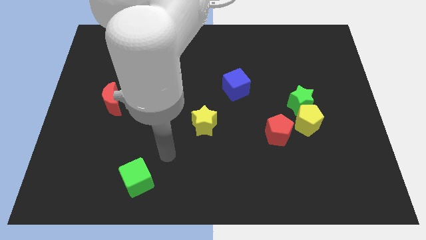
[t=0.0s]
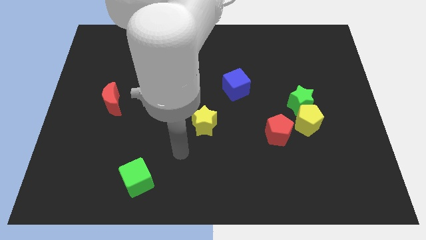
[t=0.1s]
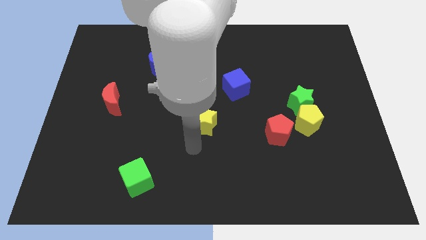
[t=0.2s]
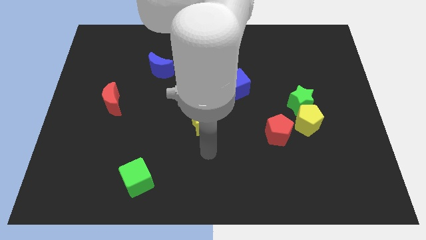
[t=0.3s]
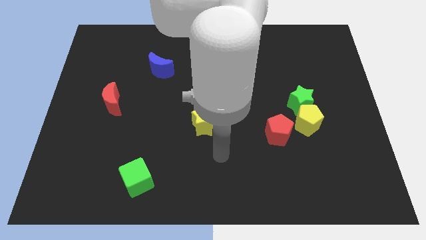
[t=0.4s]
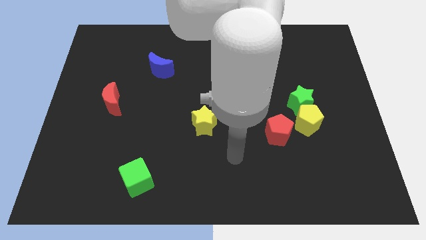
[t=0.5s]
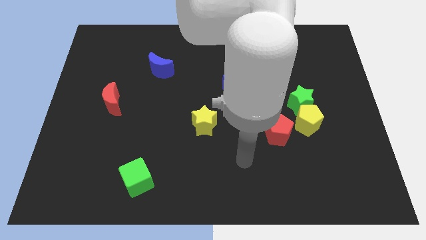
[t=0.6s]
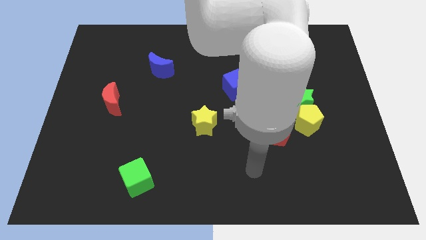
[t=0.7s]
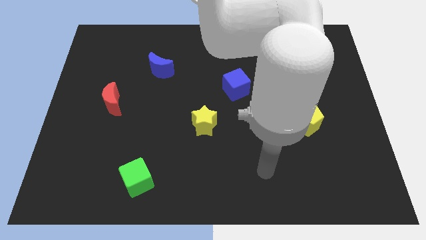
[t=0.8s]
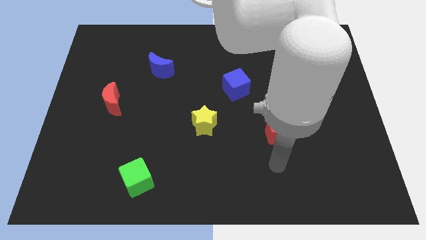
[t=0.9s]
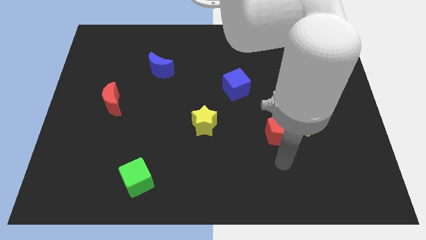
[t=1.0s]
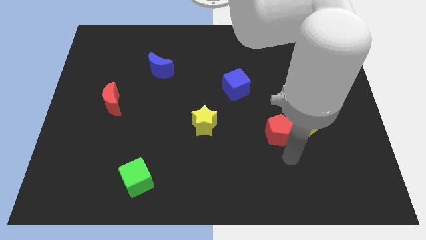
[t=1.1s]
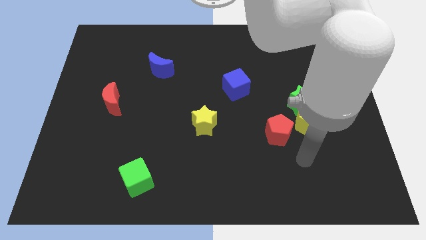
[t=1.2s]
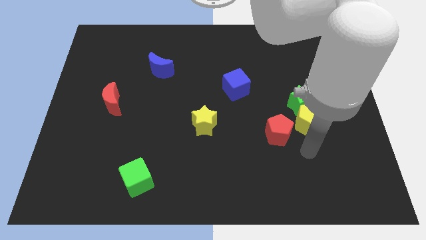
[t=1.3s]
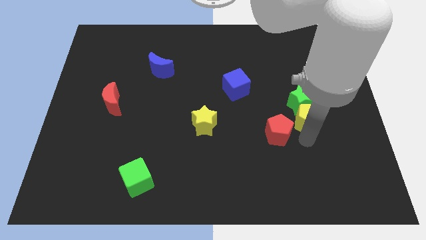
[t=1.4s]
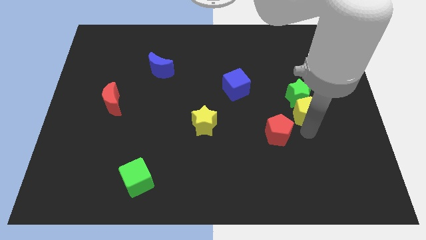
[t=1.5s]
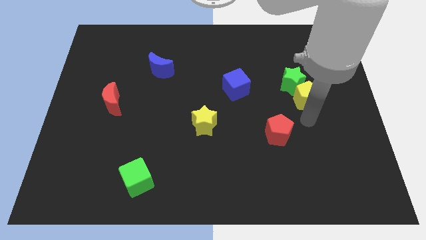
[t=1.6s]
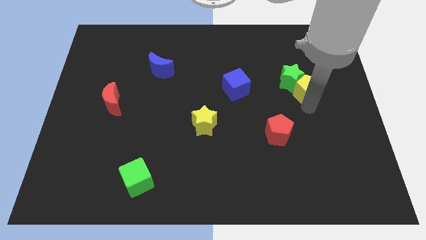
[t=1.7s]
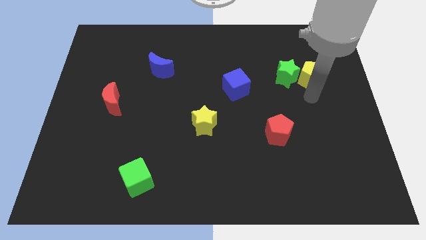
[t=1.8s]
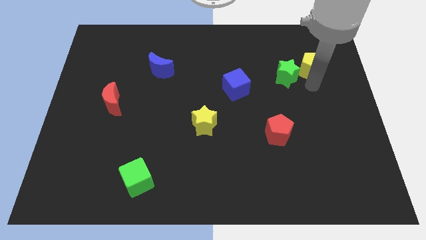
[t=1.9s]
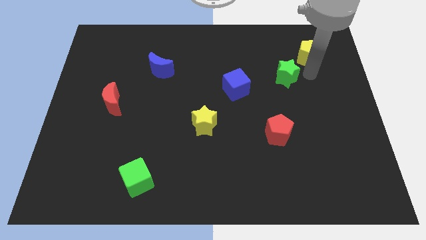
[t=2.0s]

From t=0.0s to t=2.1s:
move the green star away from the yellow pentagon

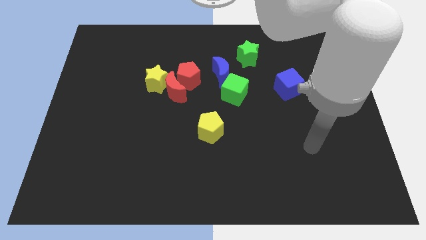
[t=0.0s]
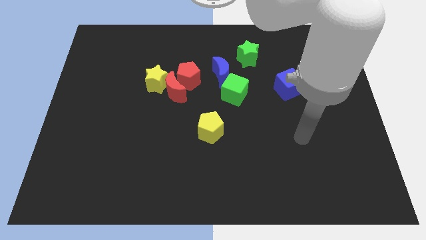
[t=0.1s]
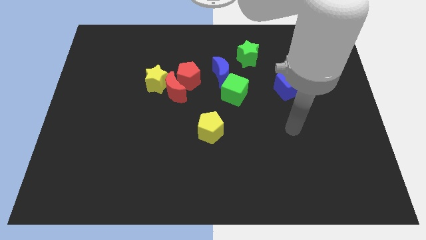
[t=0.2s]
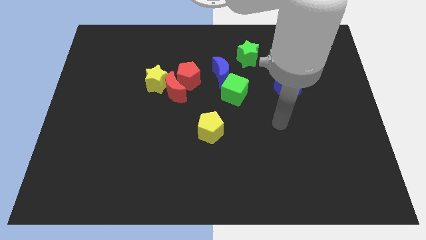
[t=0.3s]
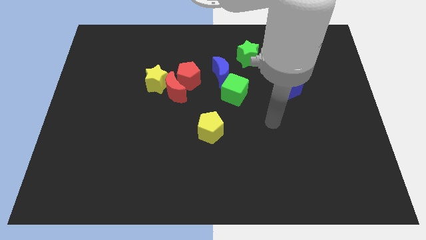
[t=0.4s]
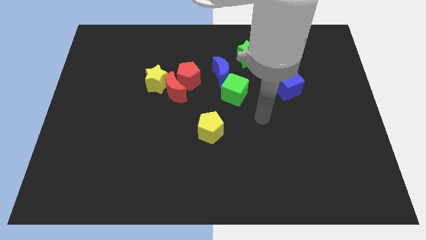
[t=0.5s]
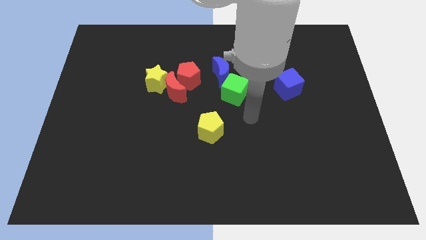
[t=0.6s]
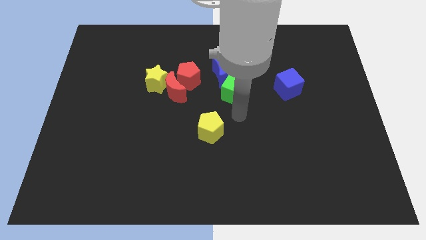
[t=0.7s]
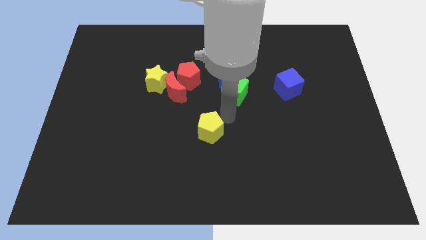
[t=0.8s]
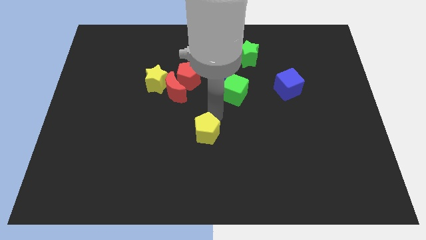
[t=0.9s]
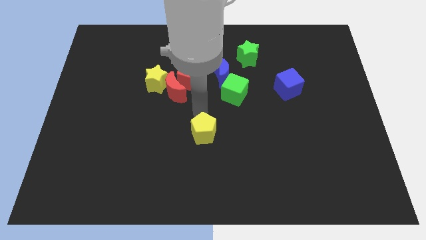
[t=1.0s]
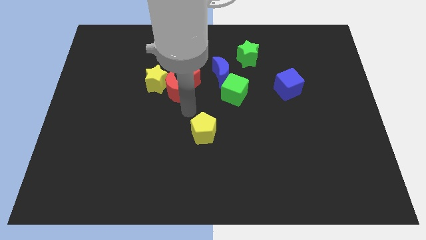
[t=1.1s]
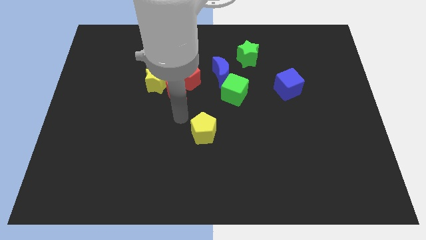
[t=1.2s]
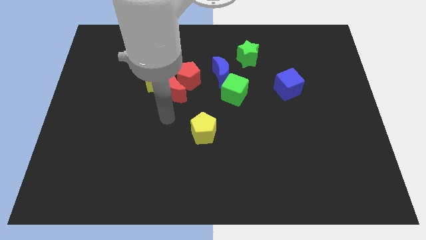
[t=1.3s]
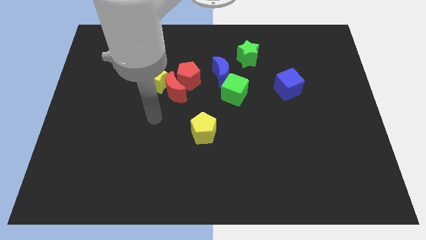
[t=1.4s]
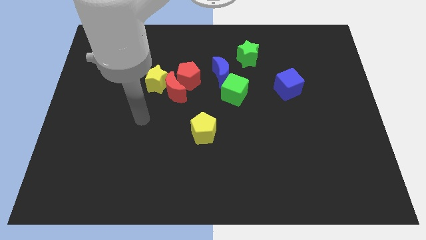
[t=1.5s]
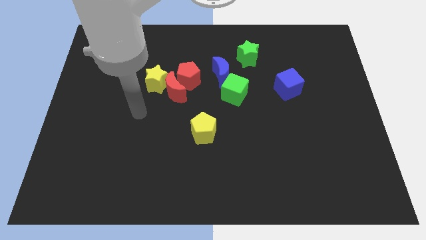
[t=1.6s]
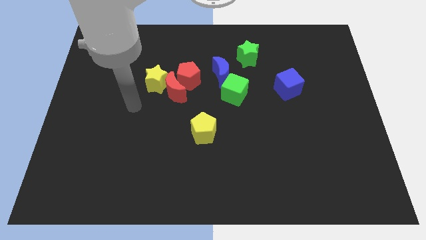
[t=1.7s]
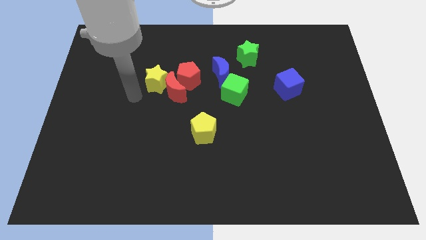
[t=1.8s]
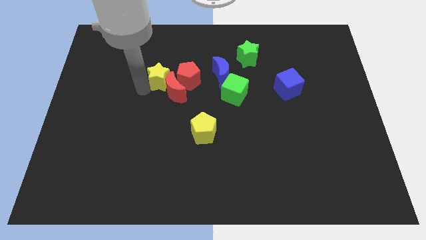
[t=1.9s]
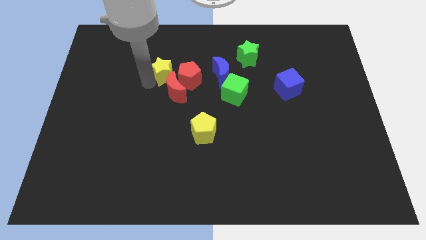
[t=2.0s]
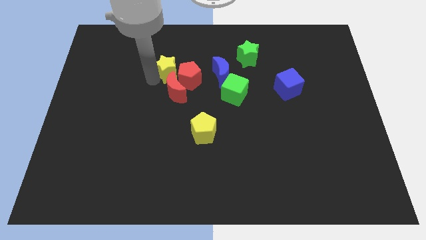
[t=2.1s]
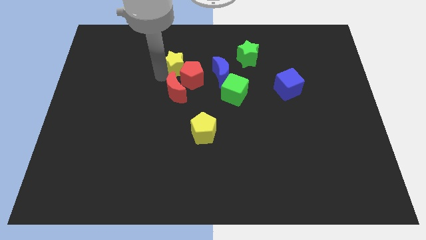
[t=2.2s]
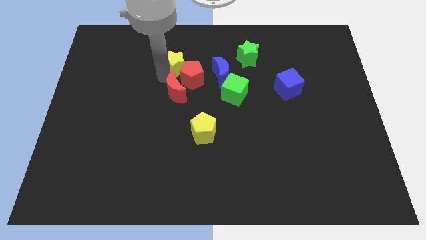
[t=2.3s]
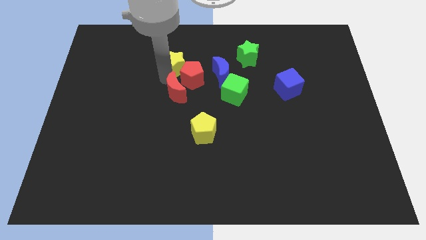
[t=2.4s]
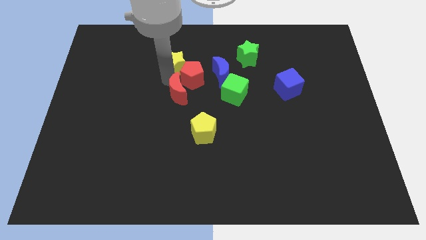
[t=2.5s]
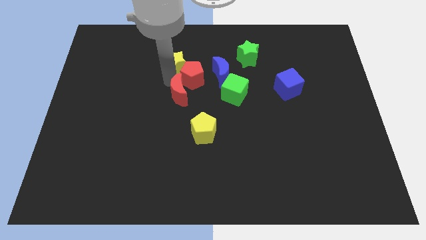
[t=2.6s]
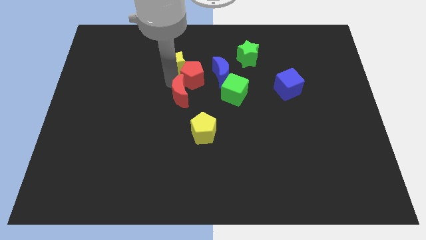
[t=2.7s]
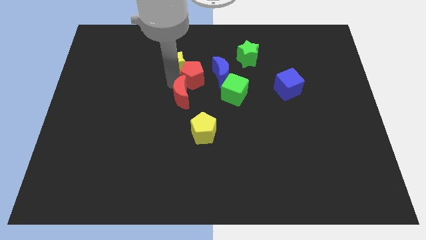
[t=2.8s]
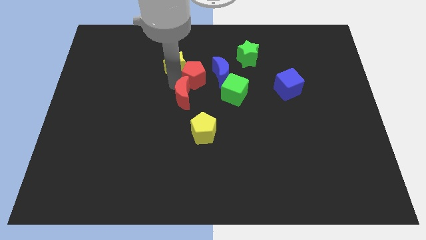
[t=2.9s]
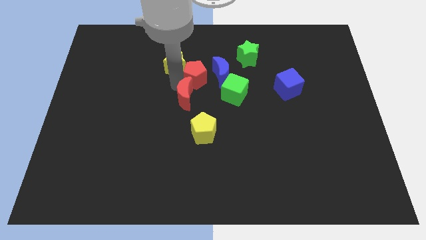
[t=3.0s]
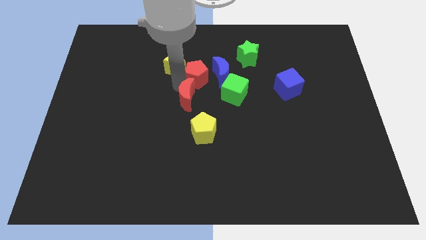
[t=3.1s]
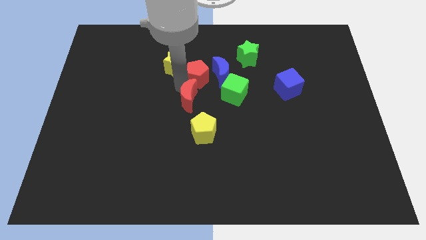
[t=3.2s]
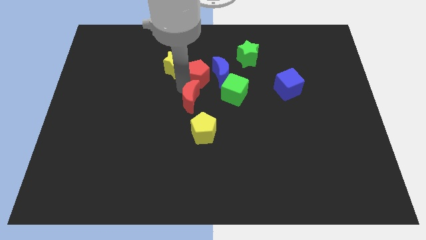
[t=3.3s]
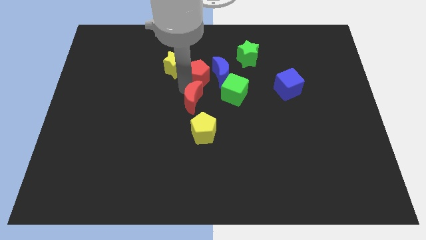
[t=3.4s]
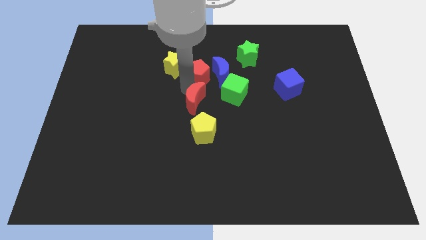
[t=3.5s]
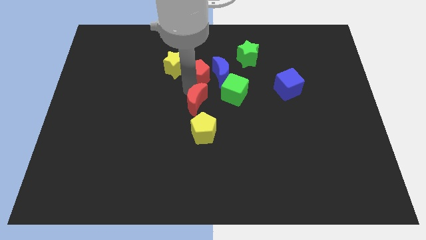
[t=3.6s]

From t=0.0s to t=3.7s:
pull the red moon apart from the red pentagon and yellow star

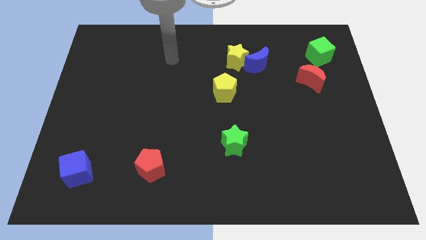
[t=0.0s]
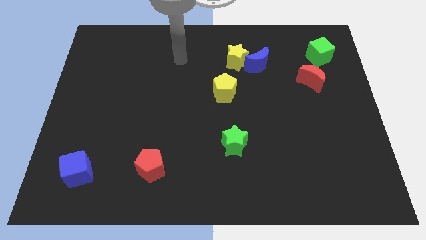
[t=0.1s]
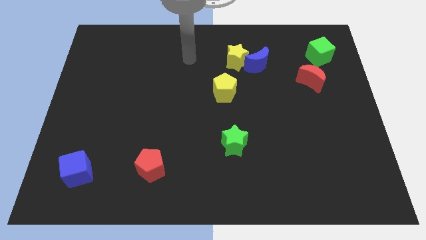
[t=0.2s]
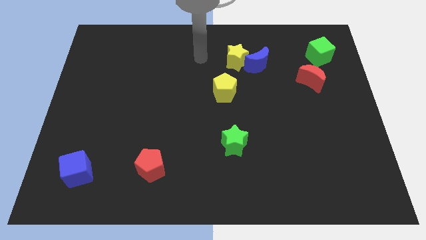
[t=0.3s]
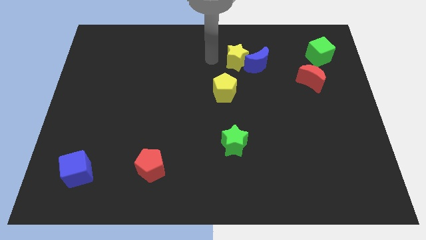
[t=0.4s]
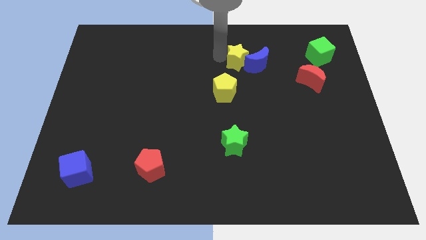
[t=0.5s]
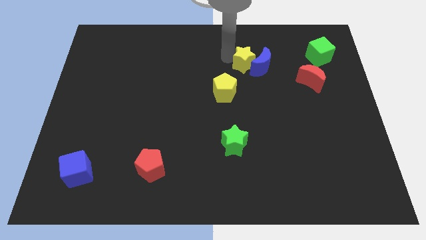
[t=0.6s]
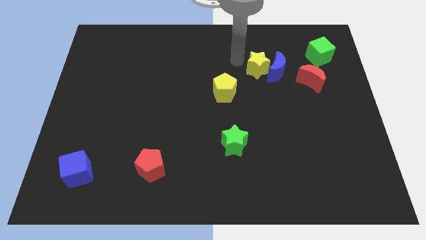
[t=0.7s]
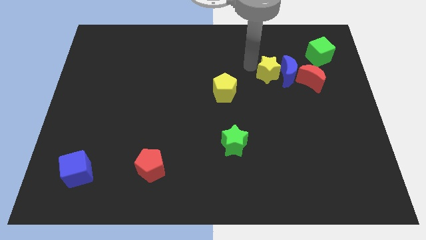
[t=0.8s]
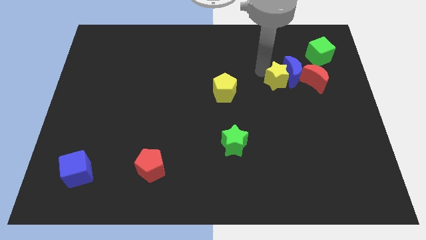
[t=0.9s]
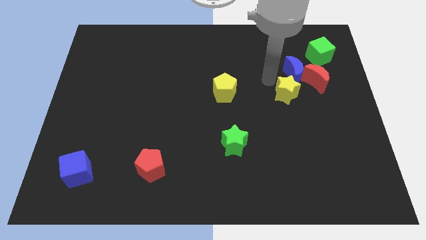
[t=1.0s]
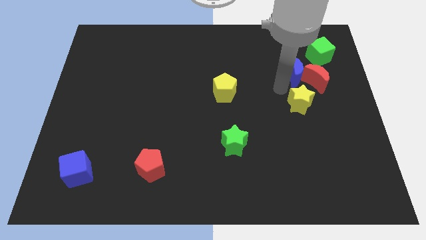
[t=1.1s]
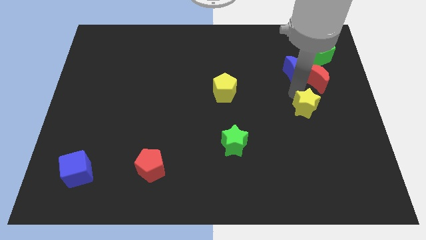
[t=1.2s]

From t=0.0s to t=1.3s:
separate the blue moon from the yellow star

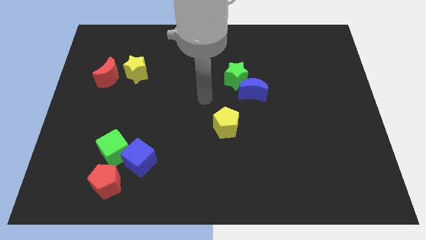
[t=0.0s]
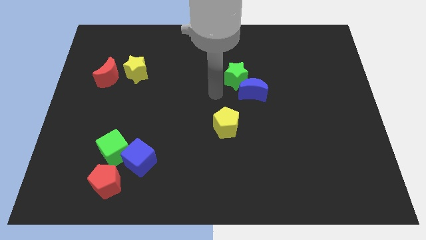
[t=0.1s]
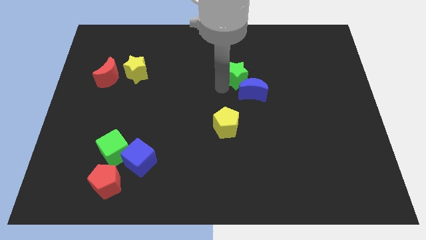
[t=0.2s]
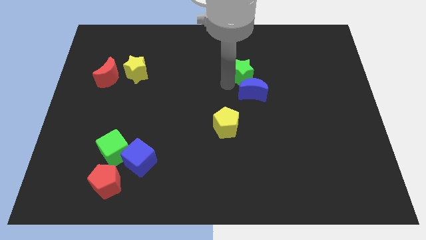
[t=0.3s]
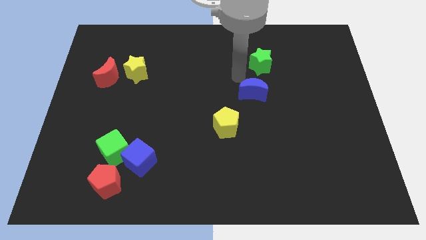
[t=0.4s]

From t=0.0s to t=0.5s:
separate the blue moon from the green star

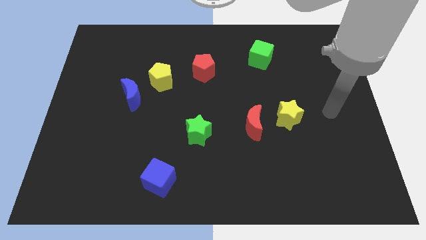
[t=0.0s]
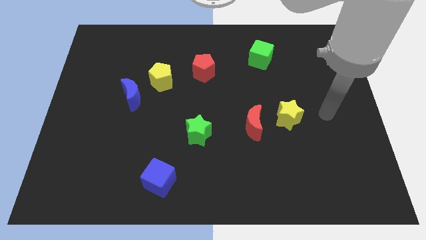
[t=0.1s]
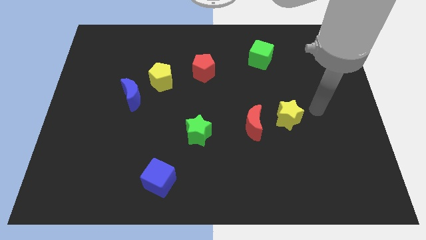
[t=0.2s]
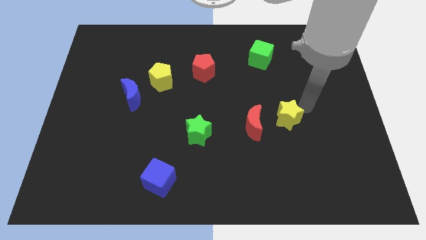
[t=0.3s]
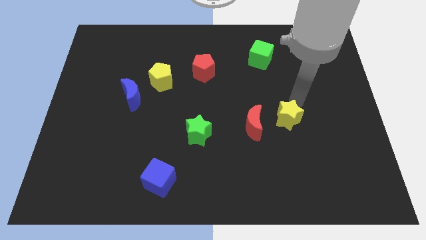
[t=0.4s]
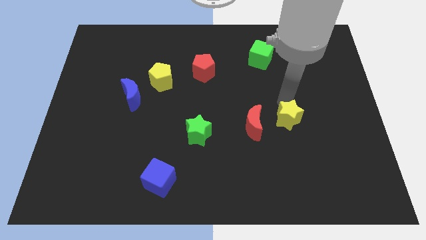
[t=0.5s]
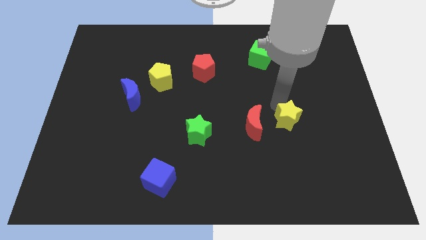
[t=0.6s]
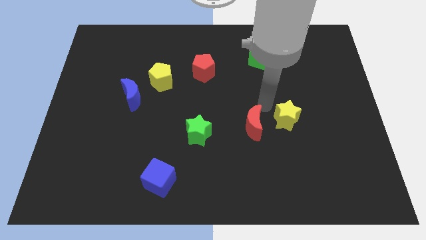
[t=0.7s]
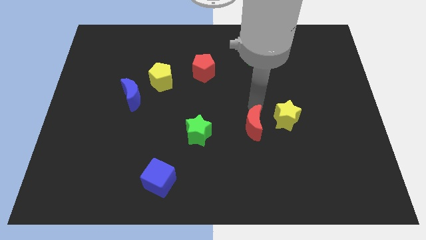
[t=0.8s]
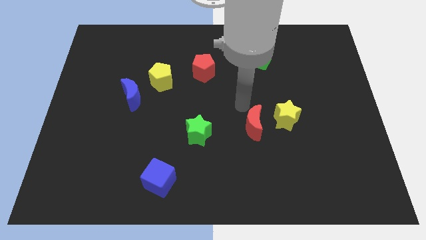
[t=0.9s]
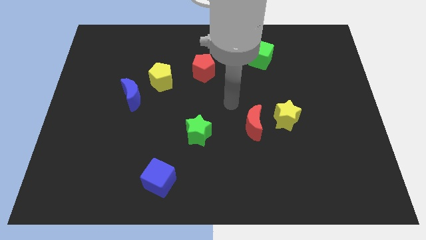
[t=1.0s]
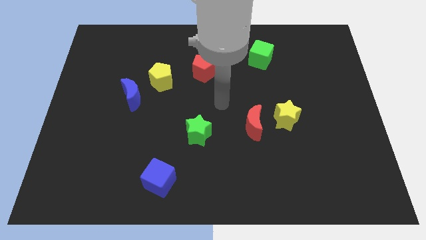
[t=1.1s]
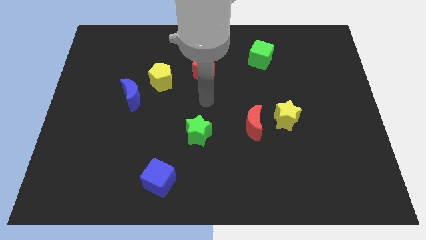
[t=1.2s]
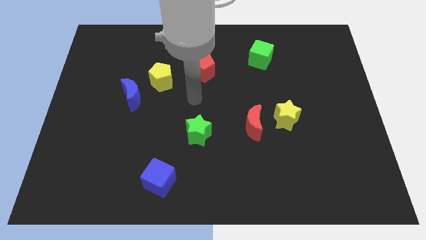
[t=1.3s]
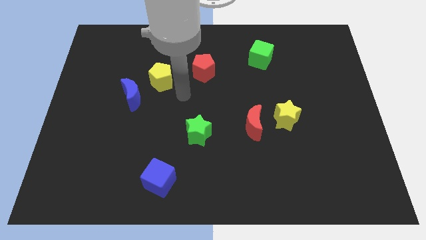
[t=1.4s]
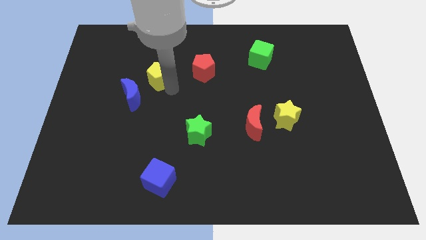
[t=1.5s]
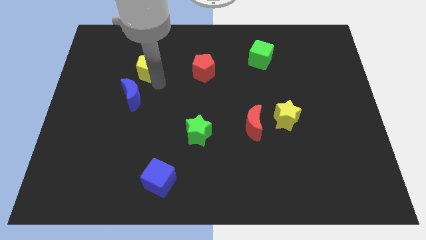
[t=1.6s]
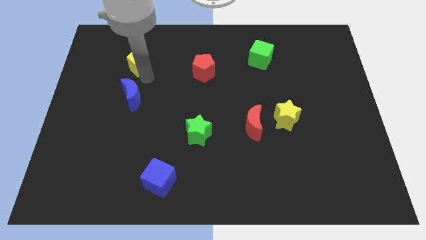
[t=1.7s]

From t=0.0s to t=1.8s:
move the blue moon away from the yellow pentagon
